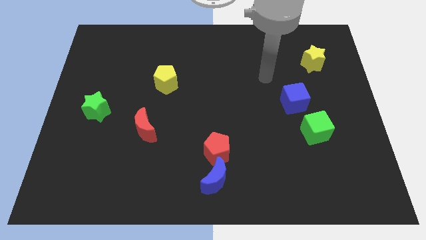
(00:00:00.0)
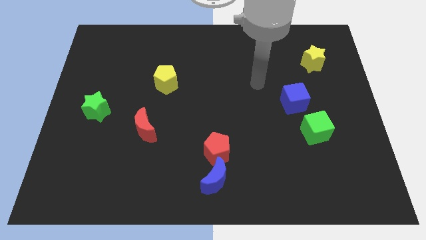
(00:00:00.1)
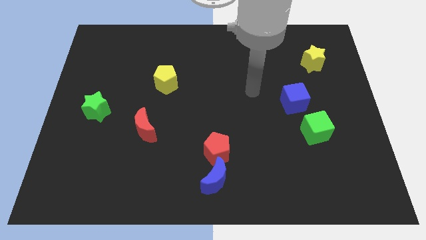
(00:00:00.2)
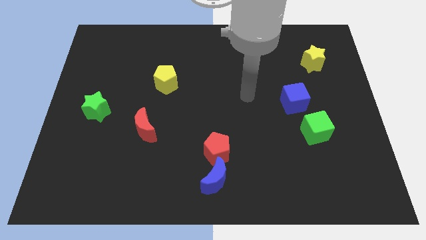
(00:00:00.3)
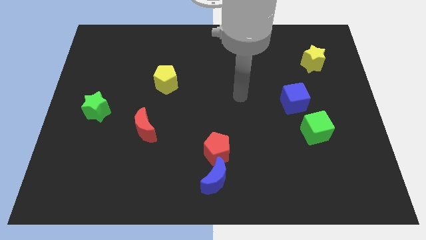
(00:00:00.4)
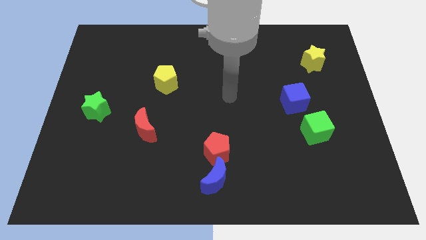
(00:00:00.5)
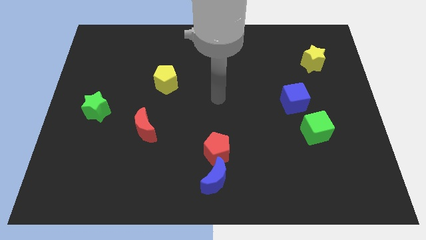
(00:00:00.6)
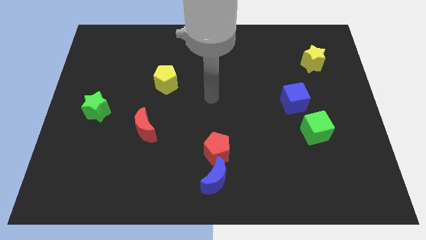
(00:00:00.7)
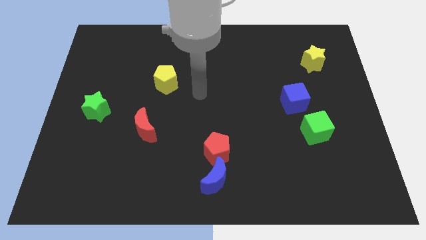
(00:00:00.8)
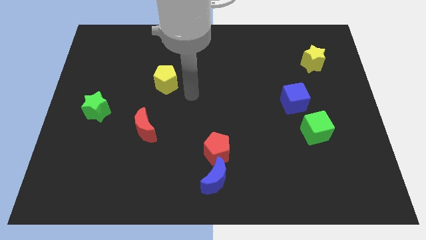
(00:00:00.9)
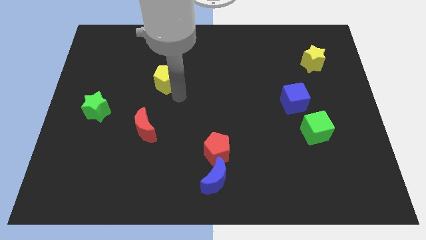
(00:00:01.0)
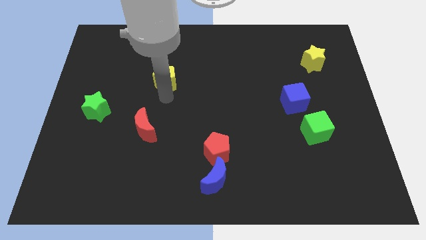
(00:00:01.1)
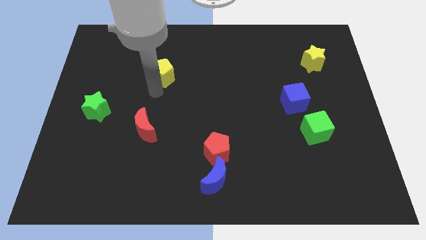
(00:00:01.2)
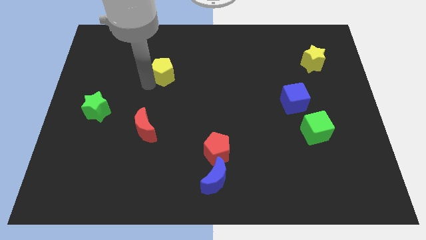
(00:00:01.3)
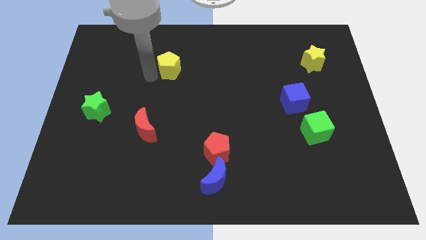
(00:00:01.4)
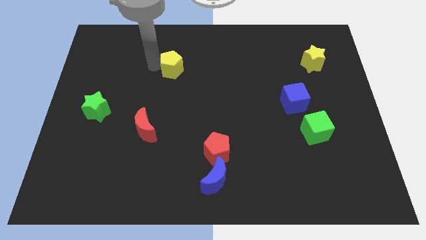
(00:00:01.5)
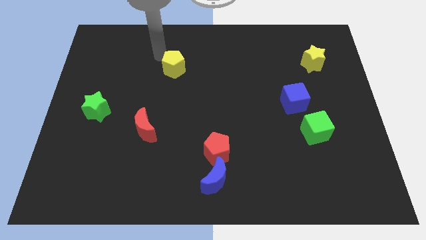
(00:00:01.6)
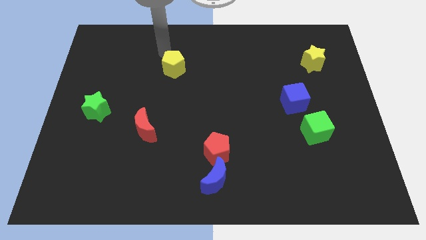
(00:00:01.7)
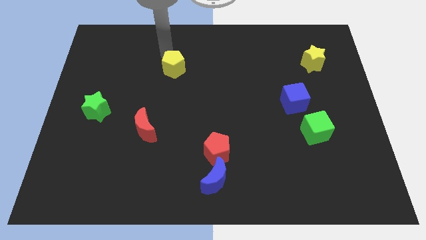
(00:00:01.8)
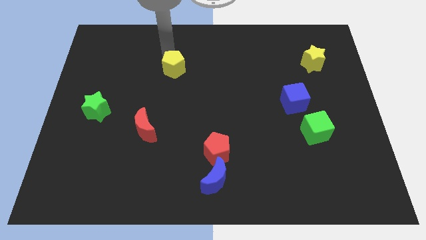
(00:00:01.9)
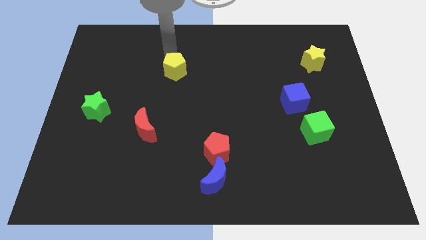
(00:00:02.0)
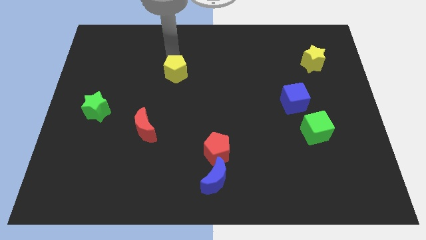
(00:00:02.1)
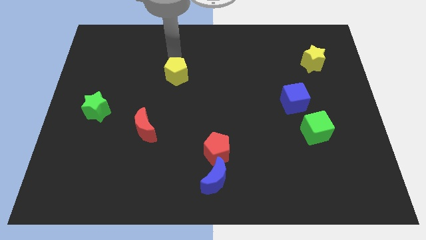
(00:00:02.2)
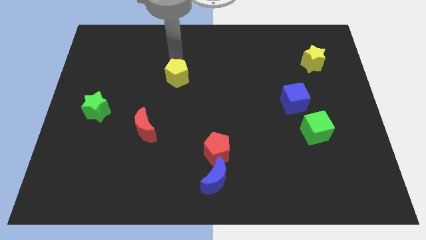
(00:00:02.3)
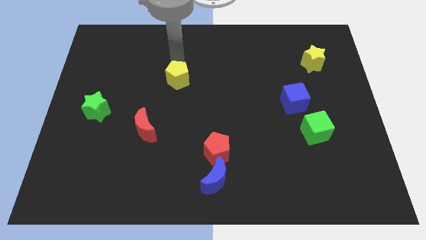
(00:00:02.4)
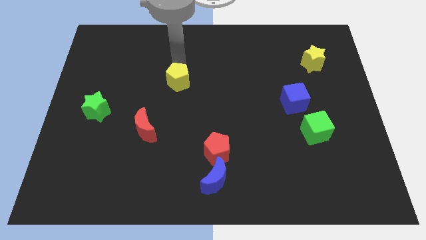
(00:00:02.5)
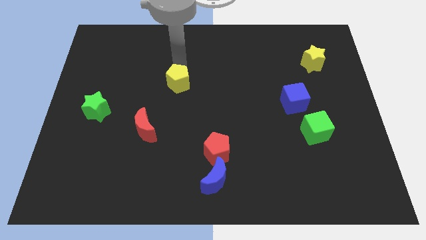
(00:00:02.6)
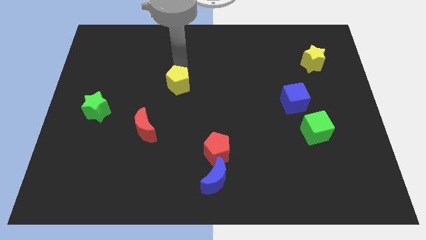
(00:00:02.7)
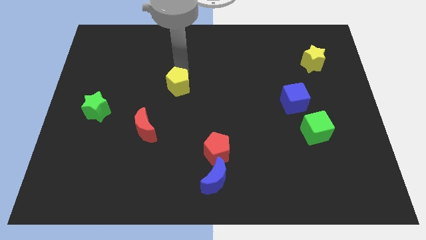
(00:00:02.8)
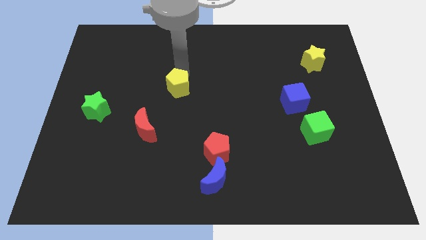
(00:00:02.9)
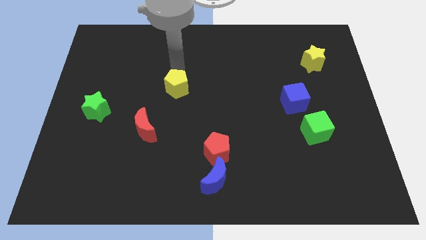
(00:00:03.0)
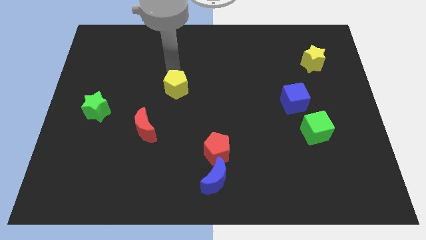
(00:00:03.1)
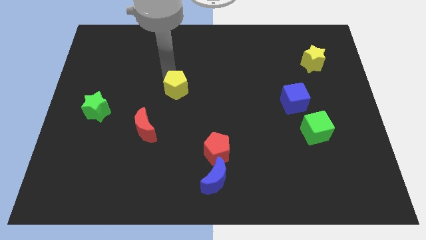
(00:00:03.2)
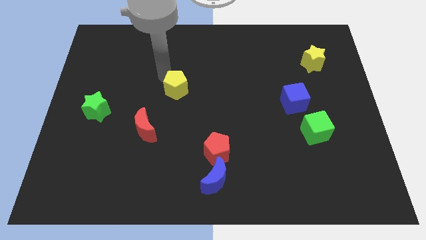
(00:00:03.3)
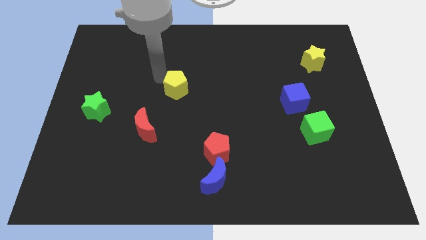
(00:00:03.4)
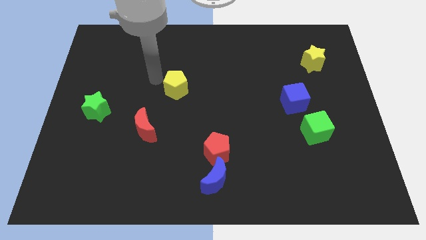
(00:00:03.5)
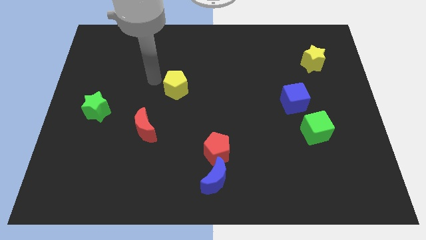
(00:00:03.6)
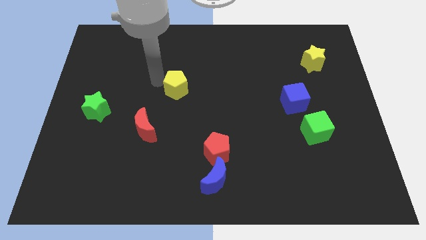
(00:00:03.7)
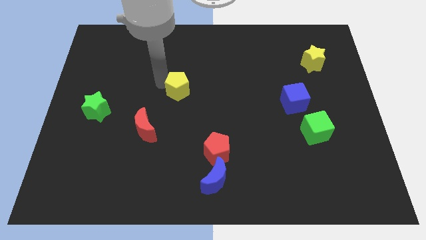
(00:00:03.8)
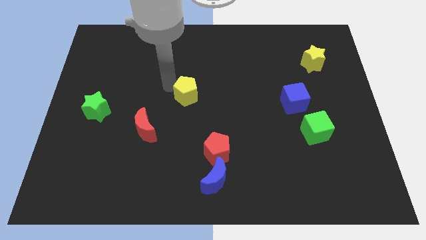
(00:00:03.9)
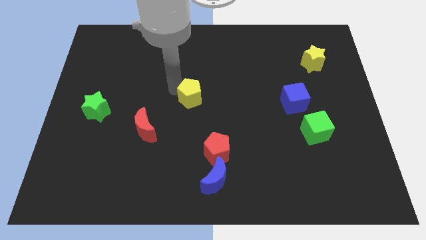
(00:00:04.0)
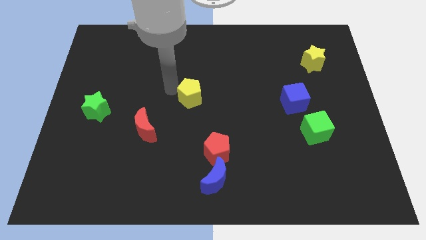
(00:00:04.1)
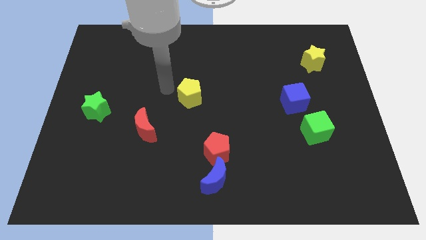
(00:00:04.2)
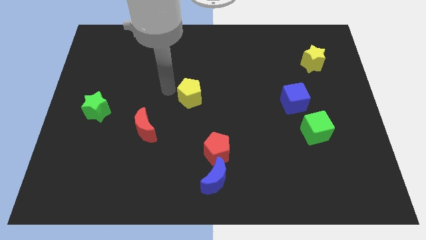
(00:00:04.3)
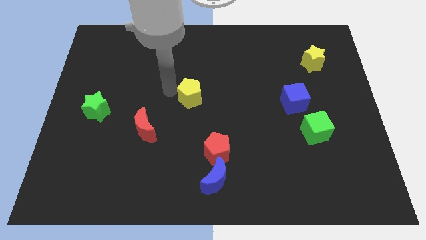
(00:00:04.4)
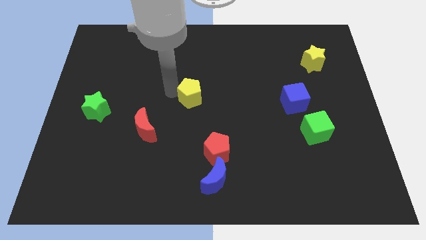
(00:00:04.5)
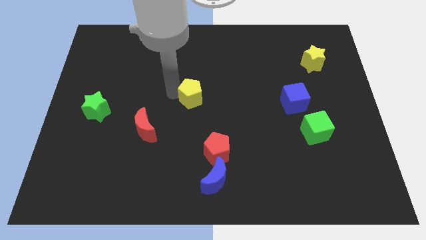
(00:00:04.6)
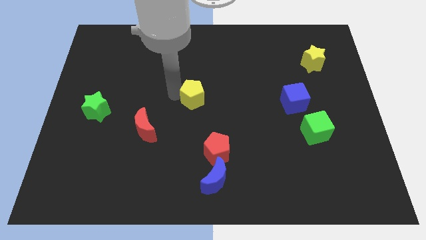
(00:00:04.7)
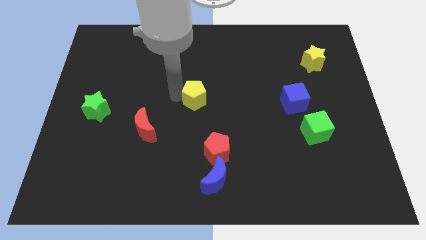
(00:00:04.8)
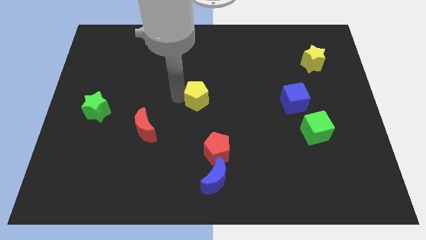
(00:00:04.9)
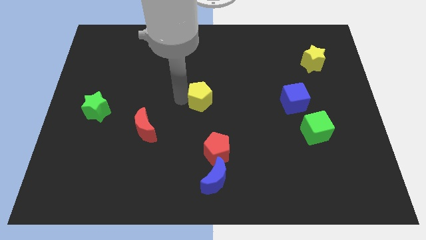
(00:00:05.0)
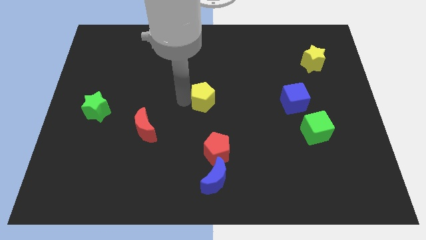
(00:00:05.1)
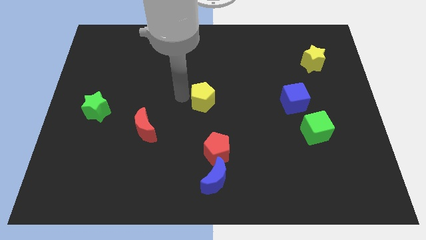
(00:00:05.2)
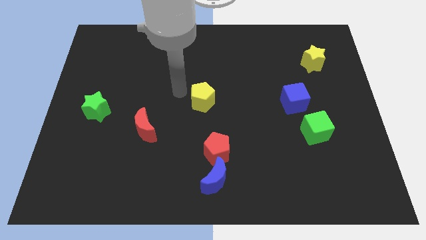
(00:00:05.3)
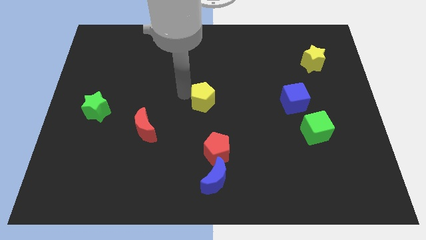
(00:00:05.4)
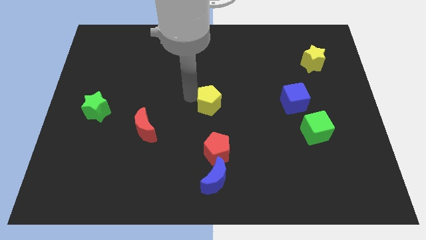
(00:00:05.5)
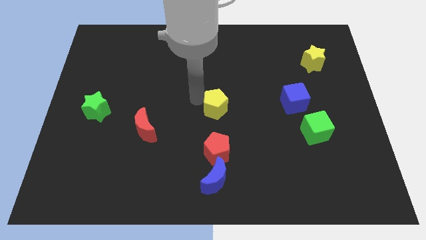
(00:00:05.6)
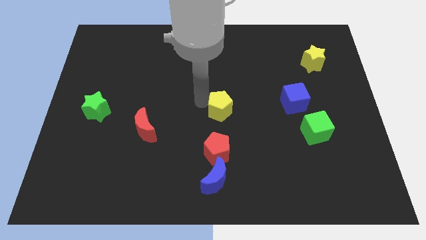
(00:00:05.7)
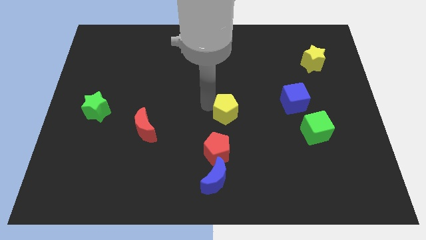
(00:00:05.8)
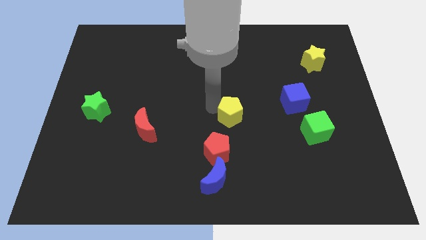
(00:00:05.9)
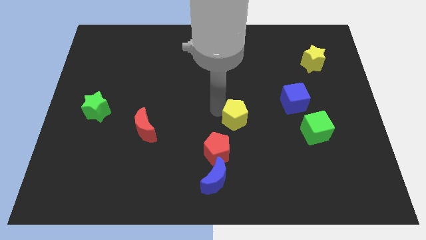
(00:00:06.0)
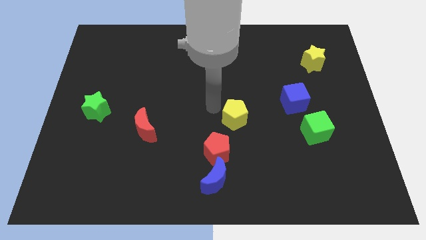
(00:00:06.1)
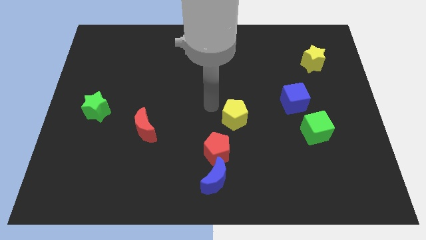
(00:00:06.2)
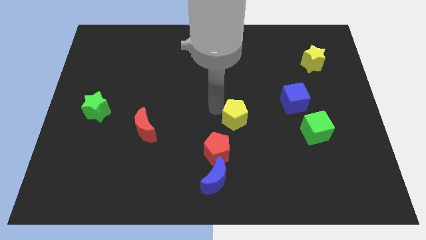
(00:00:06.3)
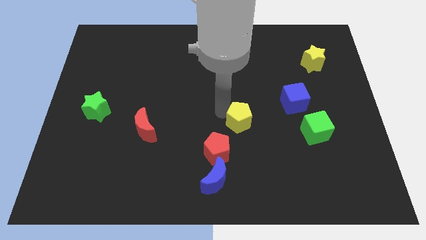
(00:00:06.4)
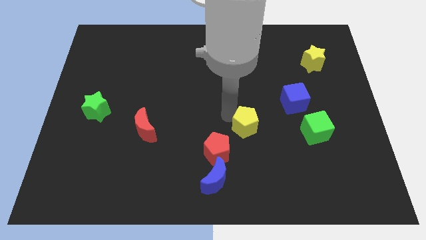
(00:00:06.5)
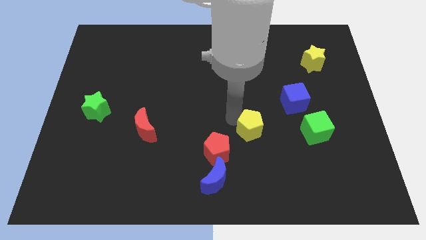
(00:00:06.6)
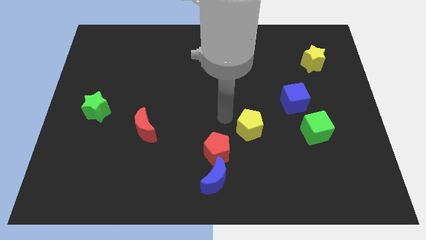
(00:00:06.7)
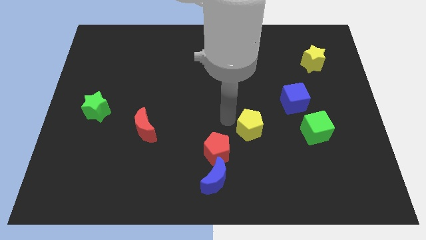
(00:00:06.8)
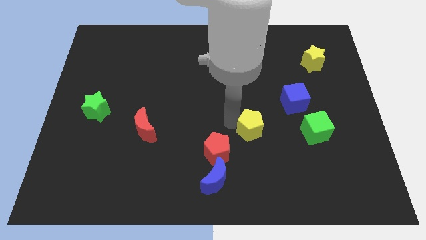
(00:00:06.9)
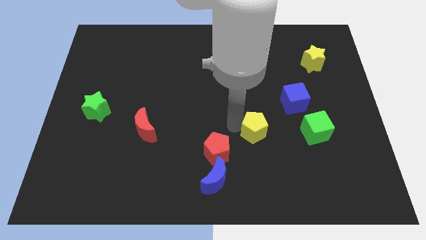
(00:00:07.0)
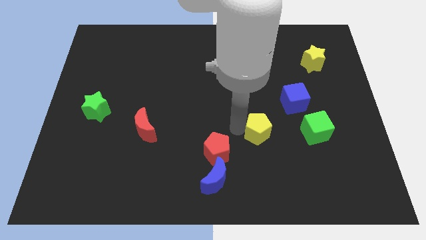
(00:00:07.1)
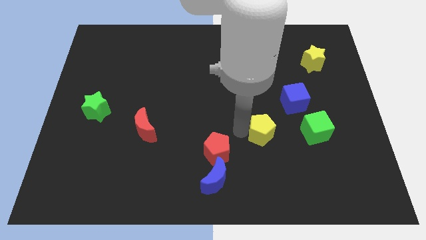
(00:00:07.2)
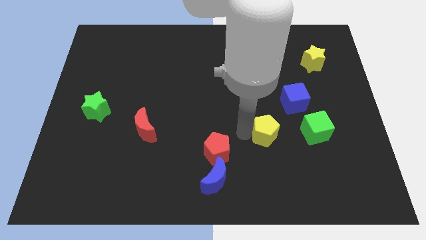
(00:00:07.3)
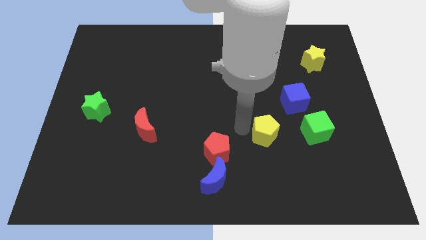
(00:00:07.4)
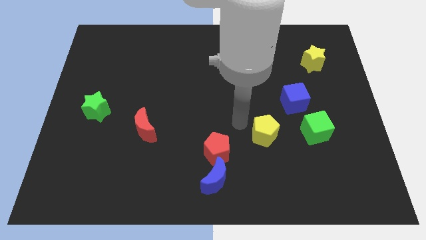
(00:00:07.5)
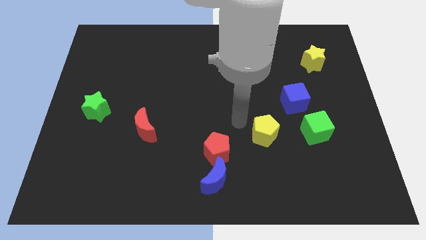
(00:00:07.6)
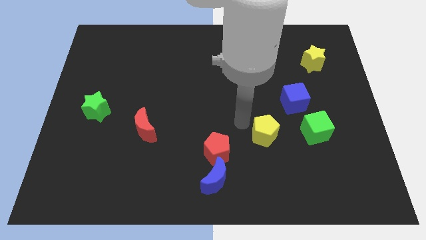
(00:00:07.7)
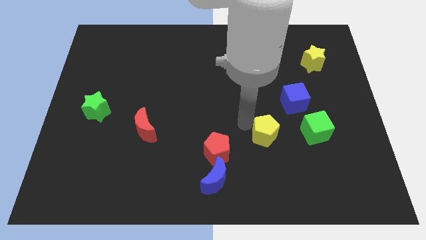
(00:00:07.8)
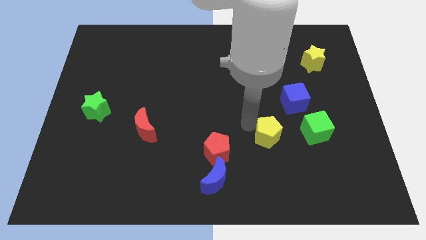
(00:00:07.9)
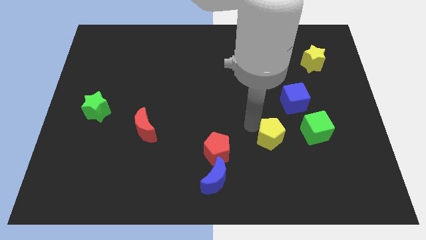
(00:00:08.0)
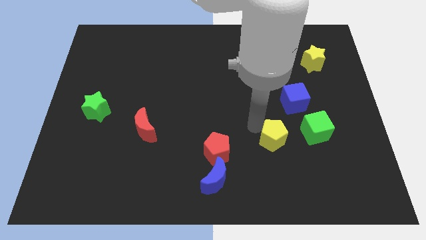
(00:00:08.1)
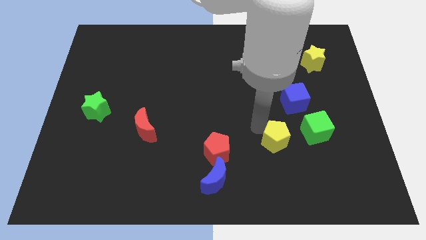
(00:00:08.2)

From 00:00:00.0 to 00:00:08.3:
push the yellow pentagon to the bottom left of the green cube
